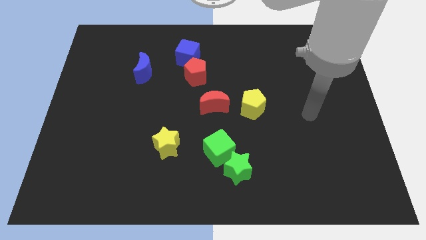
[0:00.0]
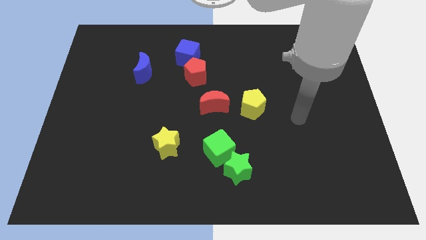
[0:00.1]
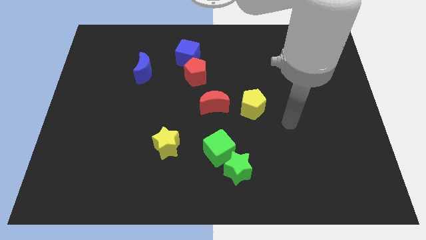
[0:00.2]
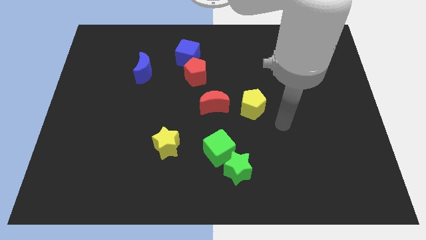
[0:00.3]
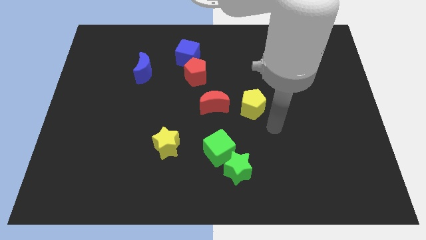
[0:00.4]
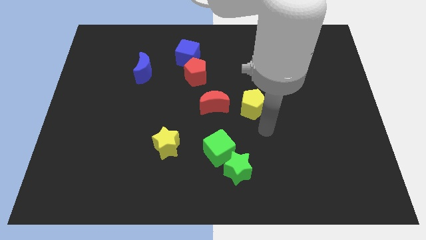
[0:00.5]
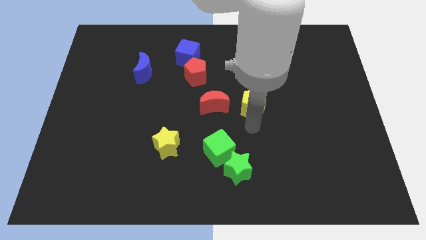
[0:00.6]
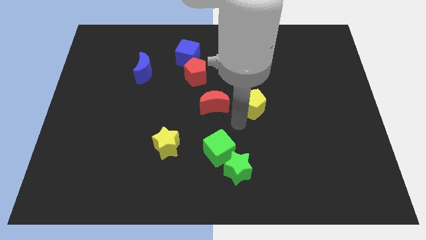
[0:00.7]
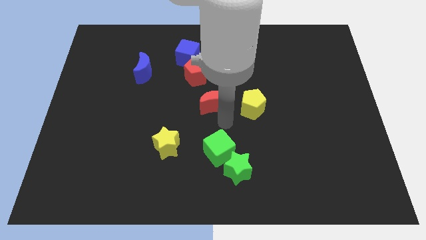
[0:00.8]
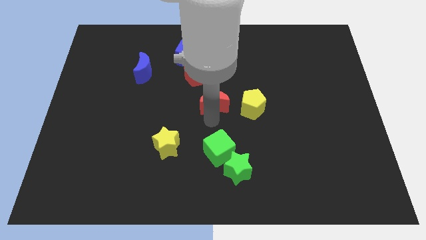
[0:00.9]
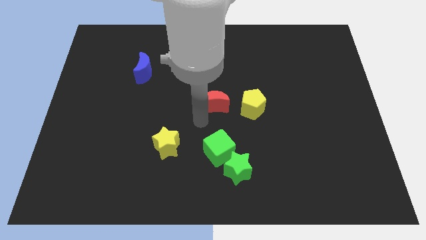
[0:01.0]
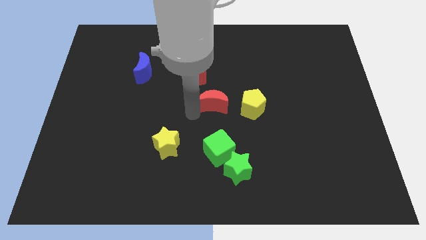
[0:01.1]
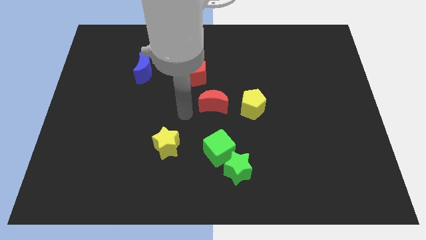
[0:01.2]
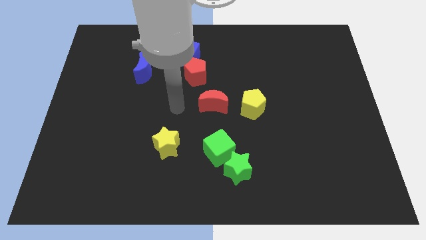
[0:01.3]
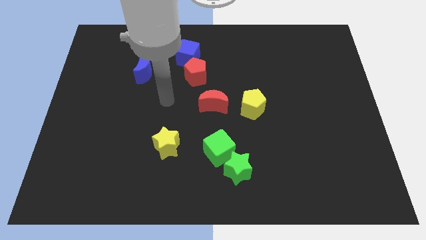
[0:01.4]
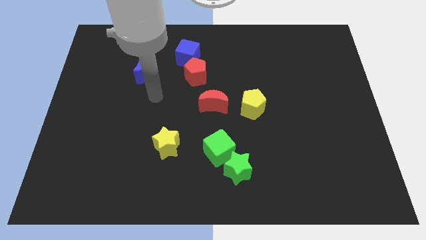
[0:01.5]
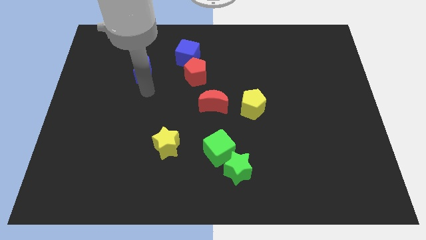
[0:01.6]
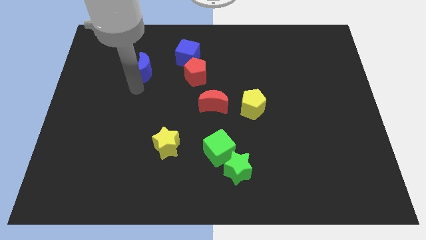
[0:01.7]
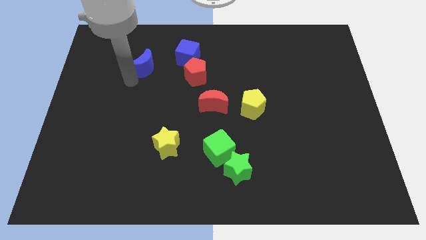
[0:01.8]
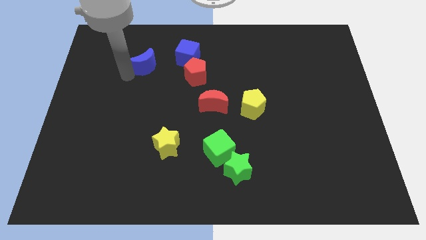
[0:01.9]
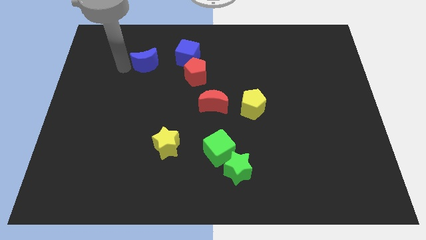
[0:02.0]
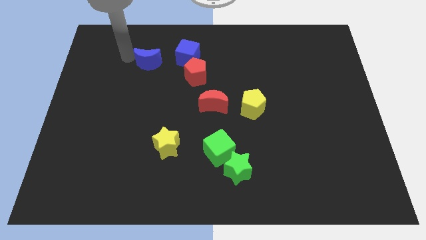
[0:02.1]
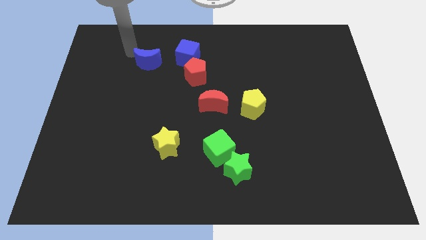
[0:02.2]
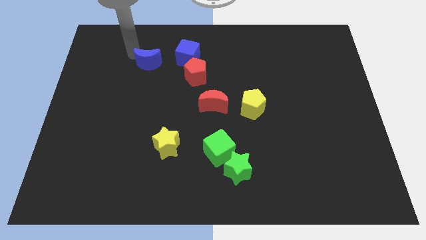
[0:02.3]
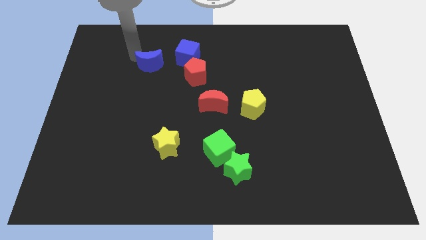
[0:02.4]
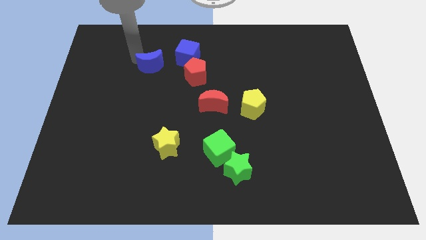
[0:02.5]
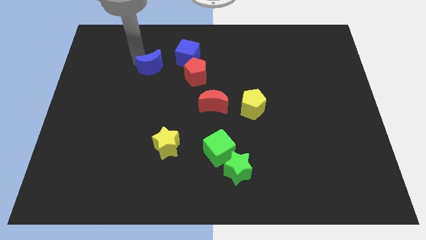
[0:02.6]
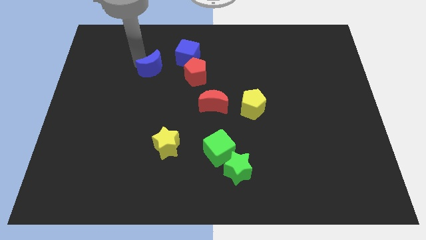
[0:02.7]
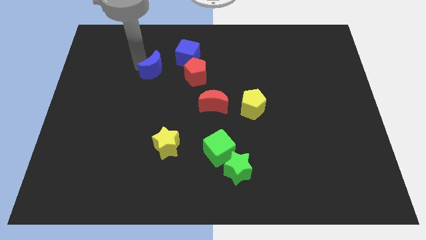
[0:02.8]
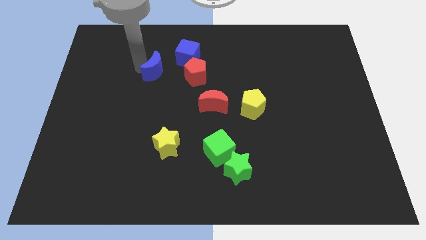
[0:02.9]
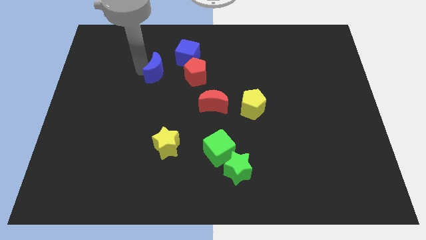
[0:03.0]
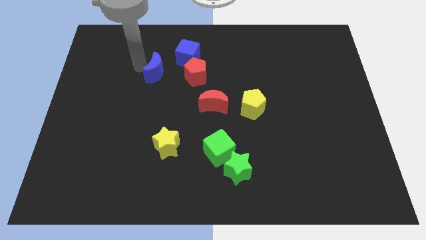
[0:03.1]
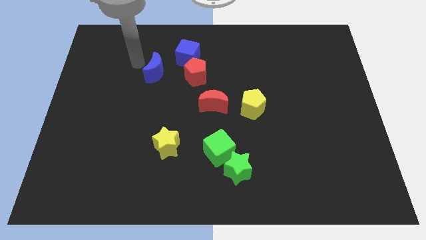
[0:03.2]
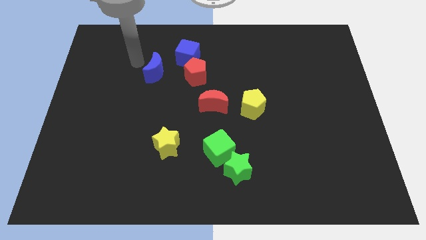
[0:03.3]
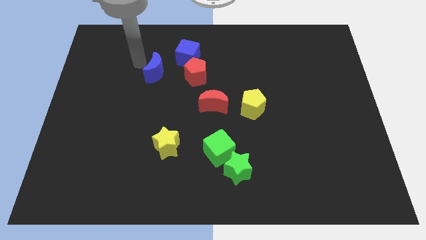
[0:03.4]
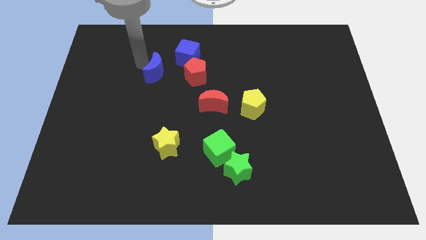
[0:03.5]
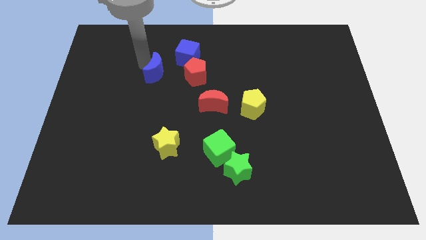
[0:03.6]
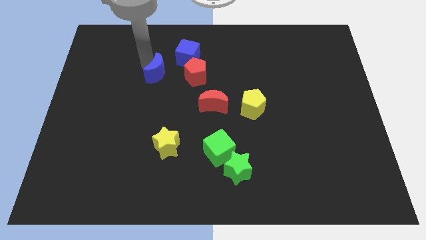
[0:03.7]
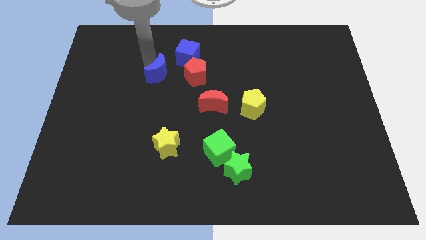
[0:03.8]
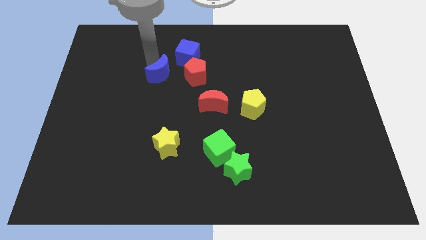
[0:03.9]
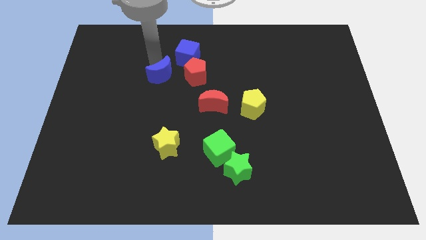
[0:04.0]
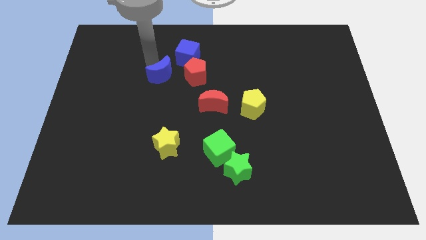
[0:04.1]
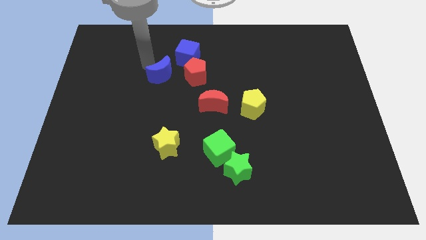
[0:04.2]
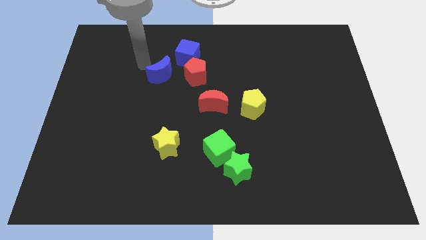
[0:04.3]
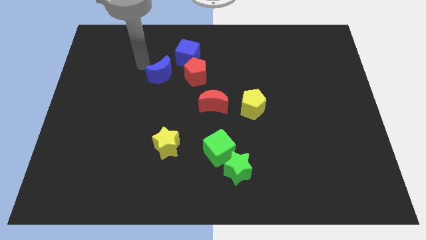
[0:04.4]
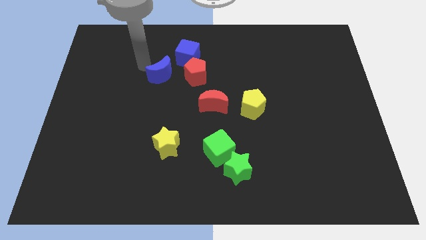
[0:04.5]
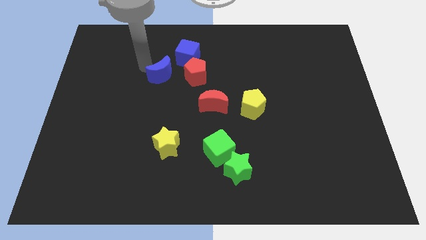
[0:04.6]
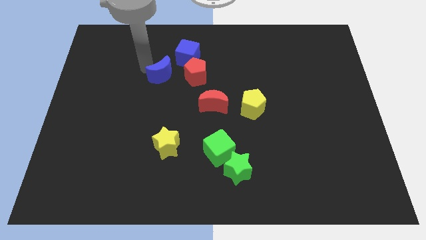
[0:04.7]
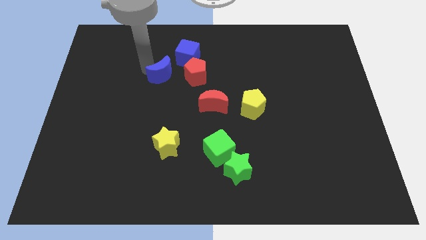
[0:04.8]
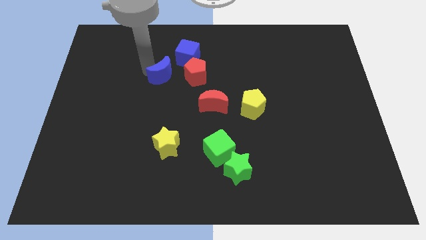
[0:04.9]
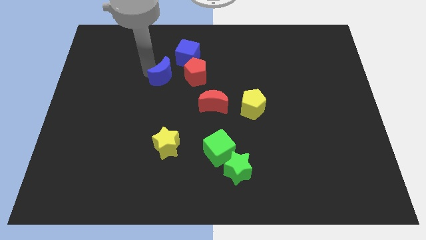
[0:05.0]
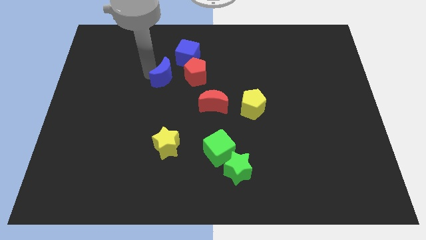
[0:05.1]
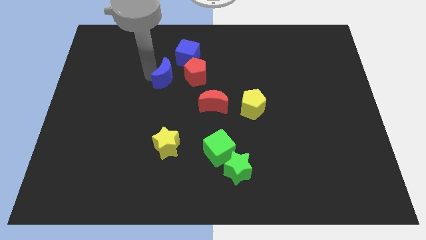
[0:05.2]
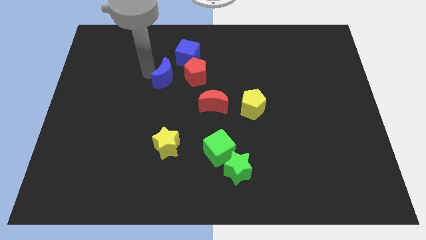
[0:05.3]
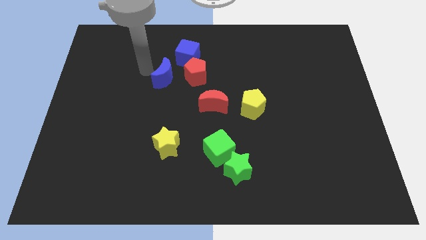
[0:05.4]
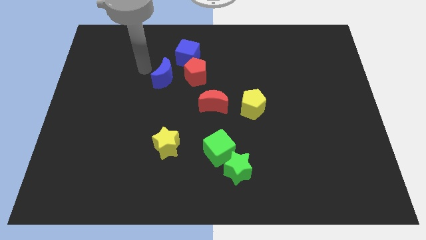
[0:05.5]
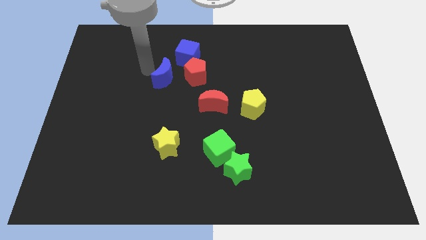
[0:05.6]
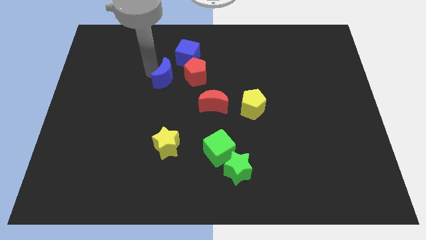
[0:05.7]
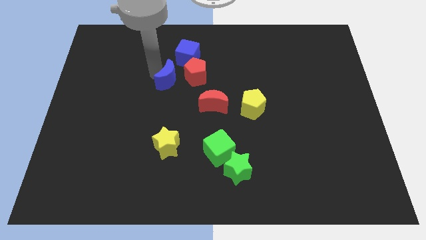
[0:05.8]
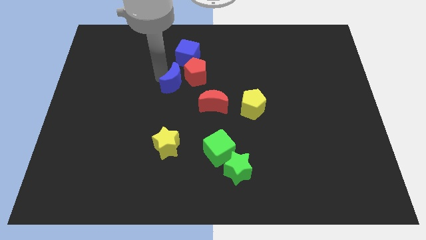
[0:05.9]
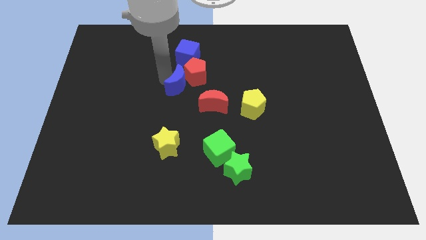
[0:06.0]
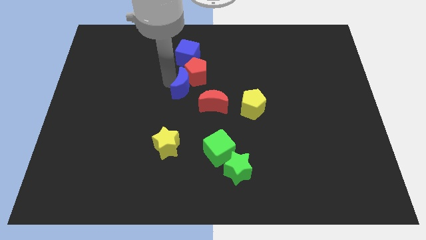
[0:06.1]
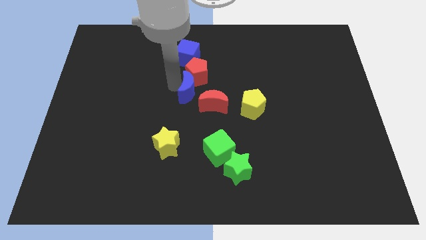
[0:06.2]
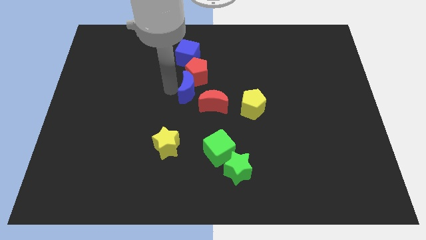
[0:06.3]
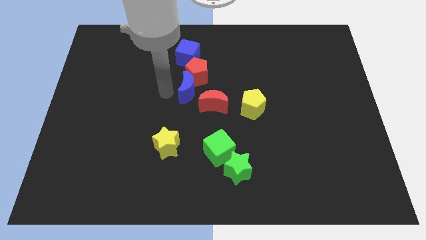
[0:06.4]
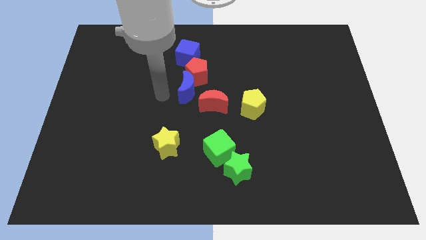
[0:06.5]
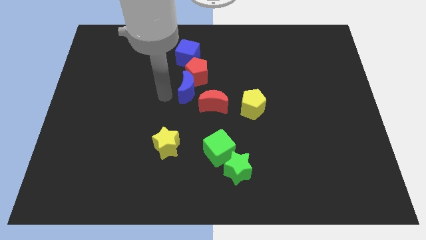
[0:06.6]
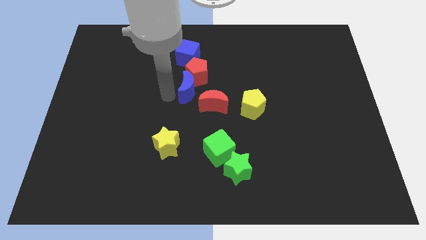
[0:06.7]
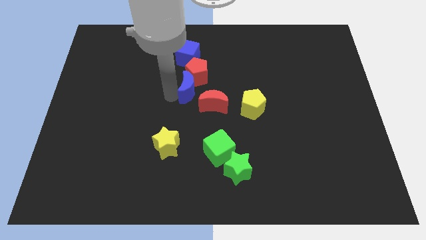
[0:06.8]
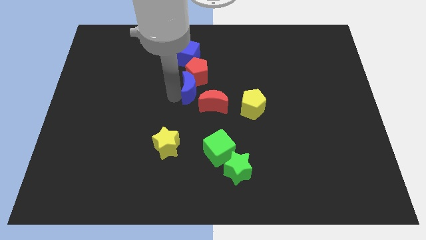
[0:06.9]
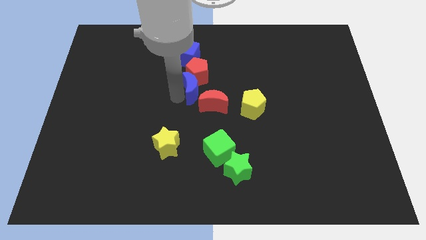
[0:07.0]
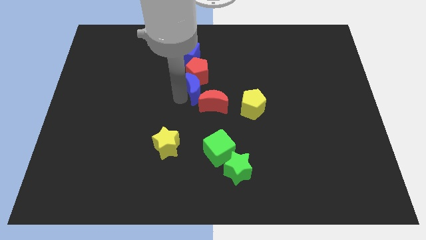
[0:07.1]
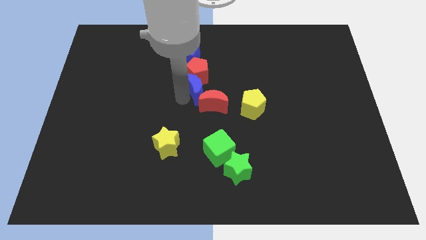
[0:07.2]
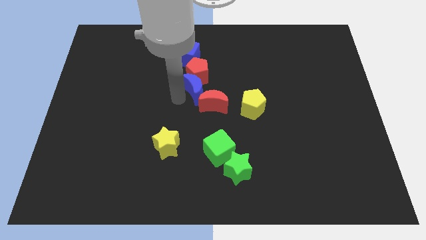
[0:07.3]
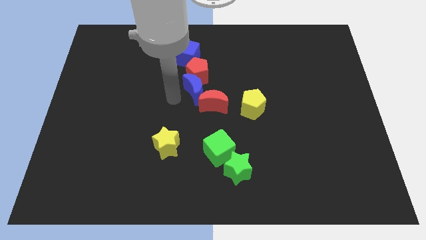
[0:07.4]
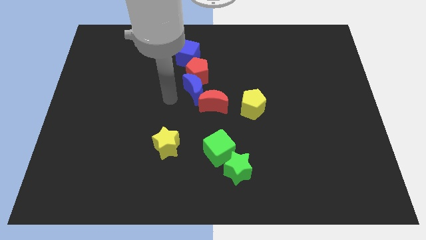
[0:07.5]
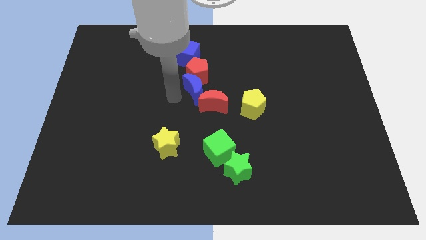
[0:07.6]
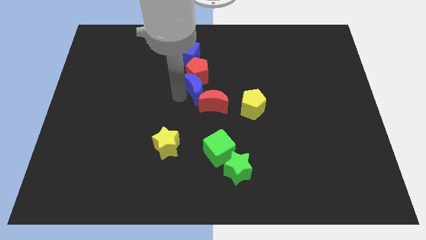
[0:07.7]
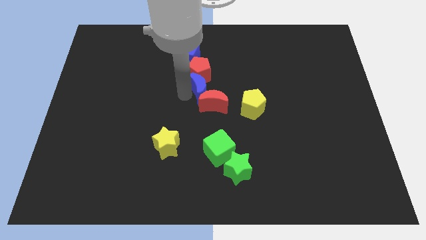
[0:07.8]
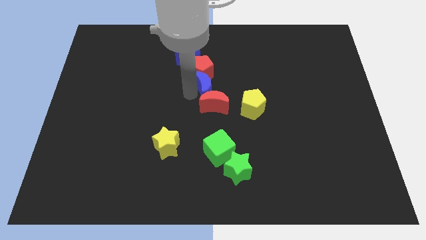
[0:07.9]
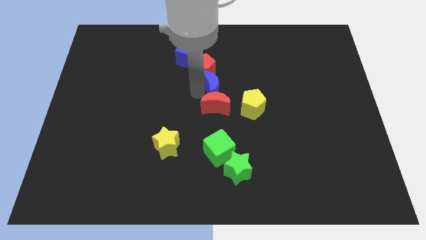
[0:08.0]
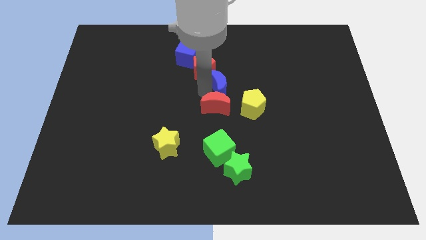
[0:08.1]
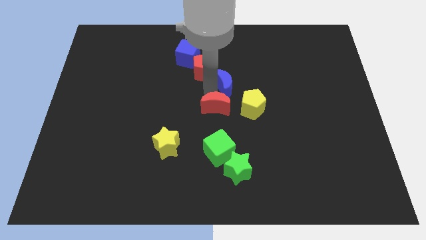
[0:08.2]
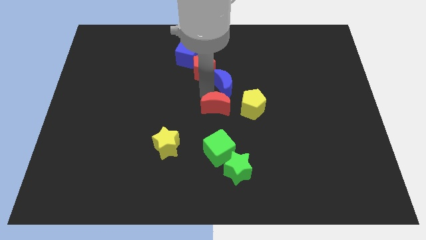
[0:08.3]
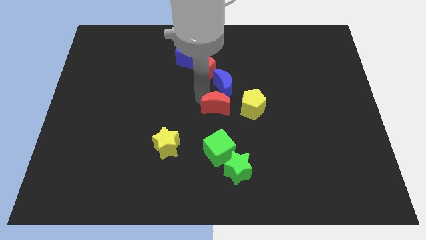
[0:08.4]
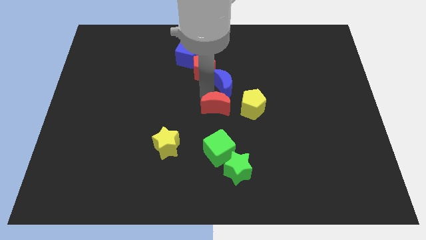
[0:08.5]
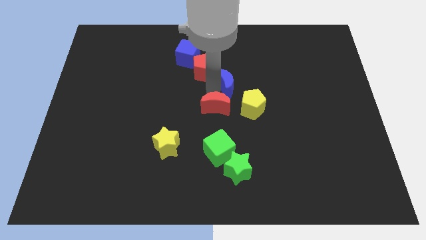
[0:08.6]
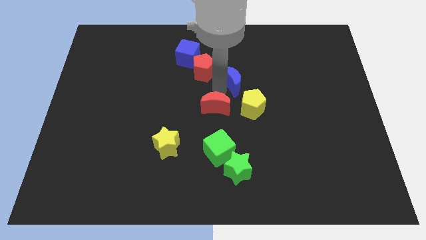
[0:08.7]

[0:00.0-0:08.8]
push the blue moon to the top of the yellow pentagon
